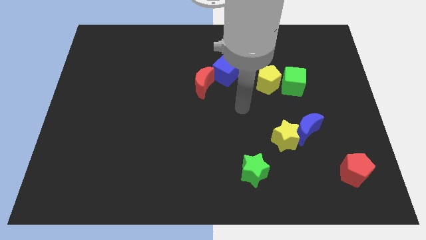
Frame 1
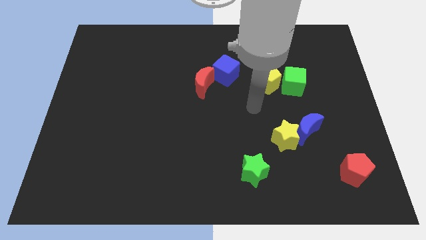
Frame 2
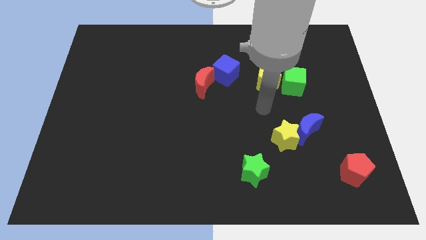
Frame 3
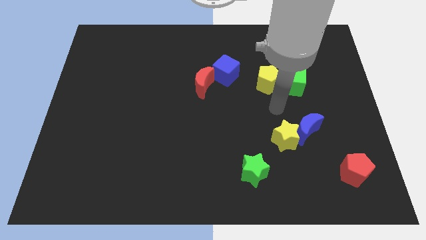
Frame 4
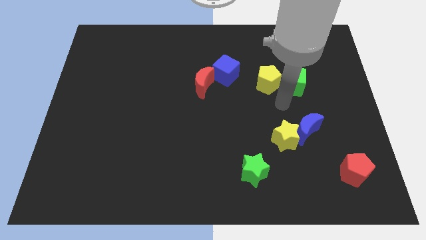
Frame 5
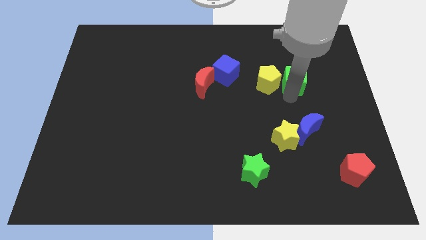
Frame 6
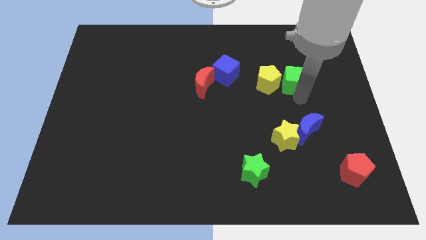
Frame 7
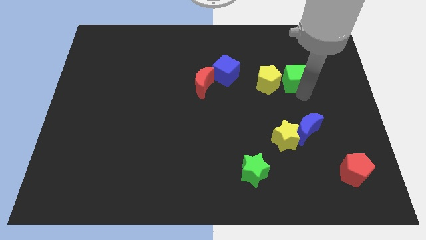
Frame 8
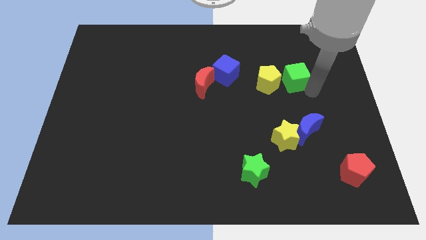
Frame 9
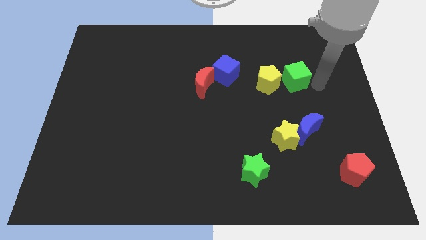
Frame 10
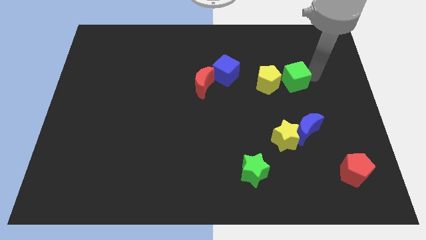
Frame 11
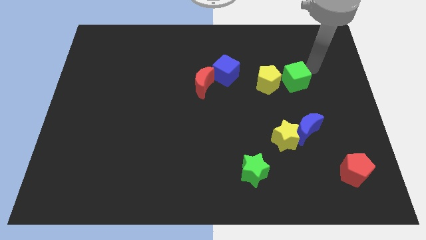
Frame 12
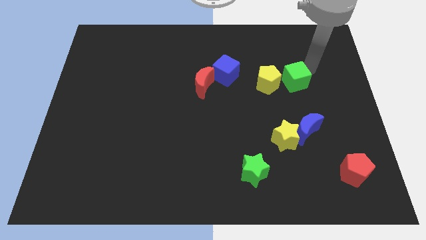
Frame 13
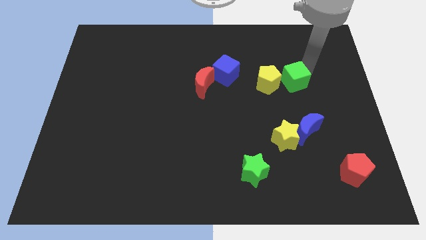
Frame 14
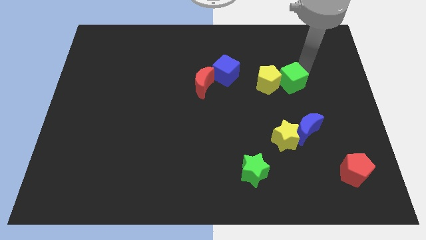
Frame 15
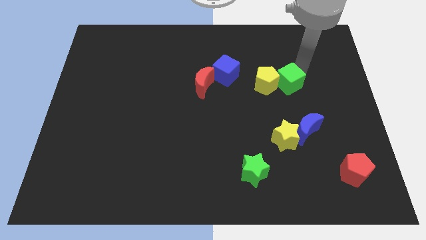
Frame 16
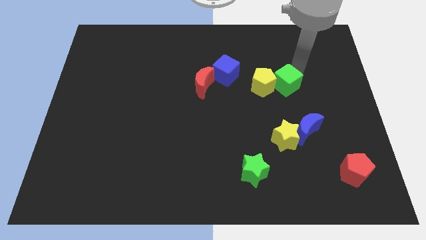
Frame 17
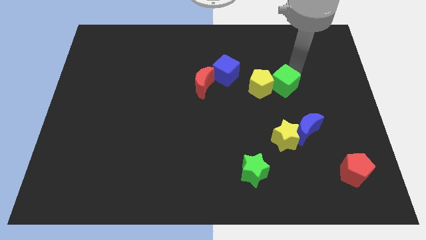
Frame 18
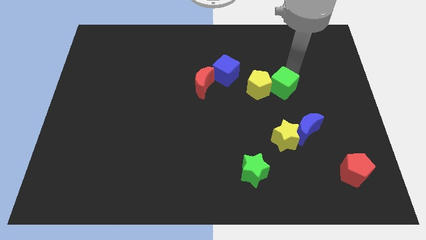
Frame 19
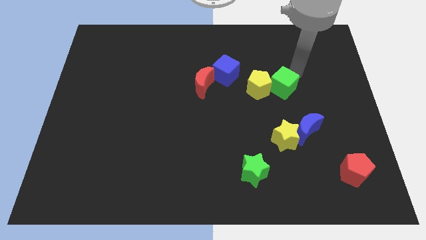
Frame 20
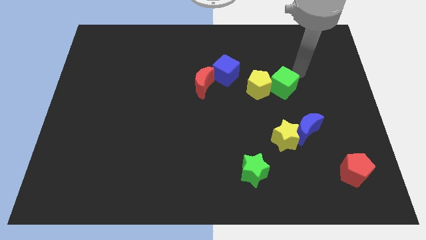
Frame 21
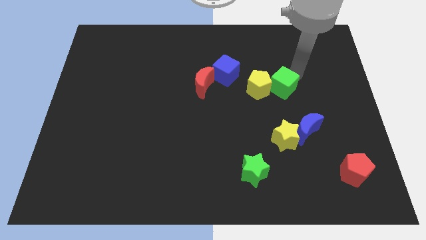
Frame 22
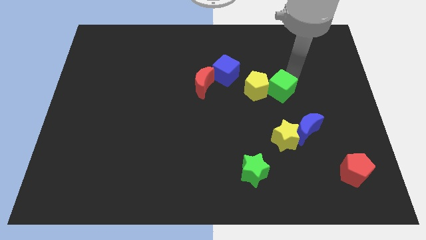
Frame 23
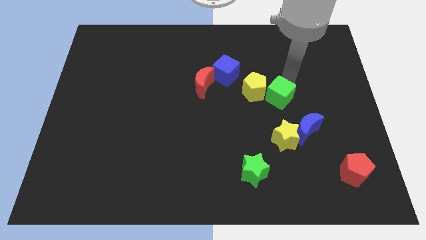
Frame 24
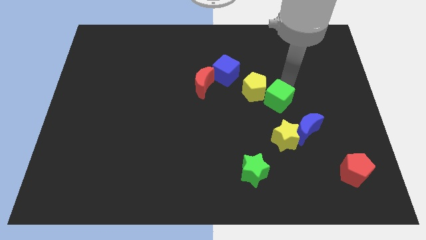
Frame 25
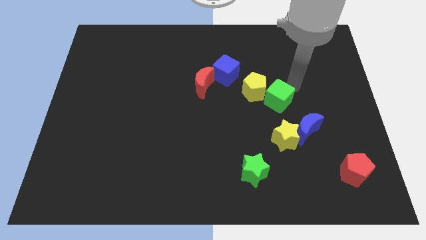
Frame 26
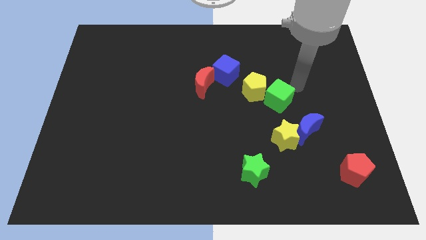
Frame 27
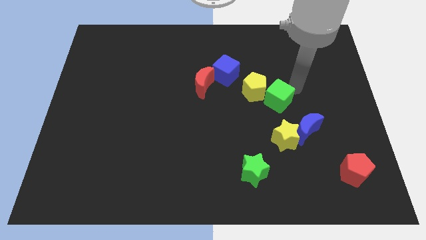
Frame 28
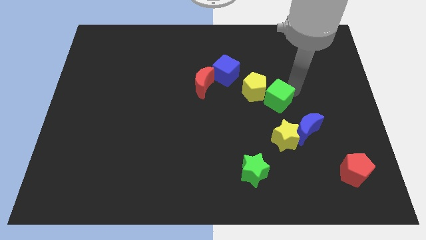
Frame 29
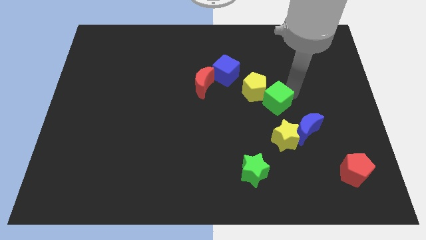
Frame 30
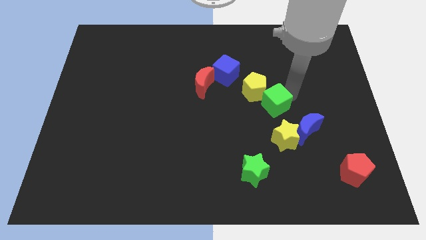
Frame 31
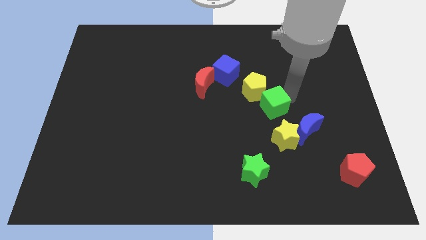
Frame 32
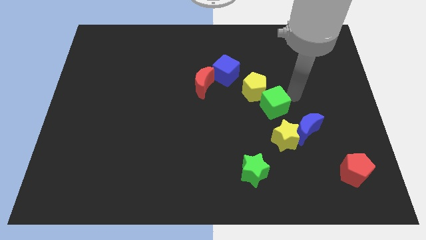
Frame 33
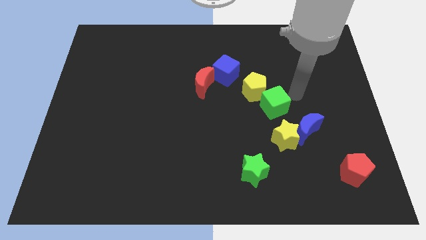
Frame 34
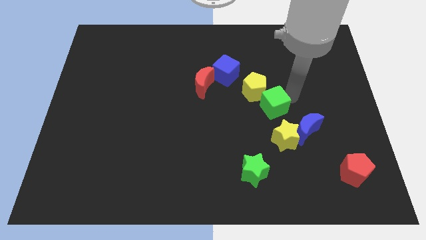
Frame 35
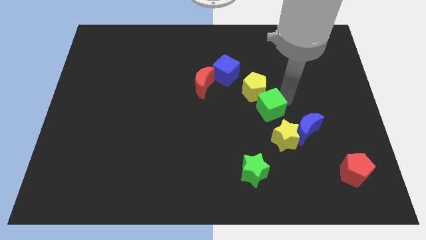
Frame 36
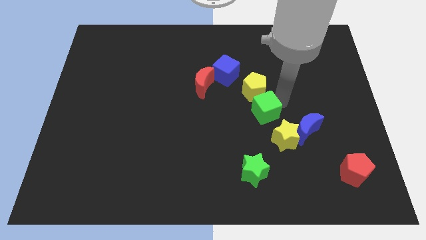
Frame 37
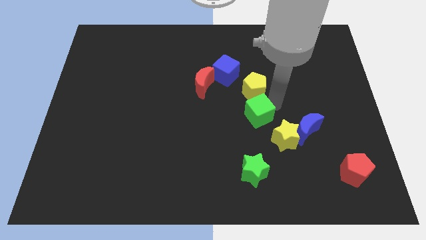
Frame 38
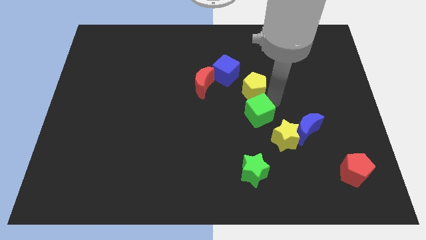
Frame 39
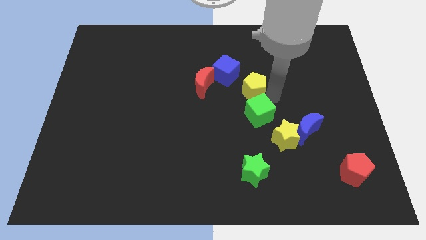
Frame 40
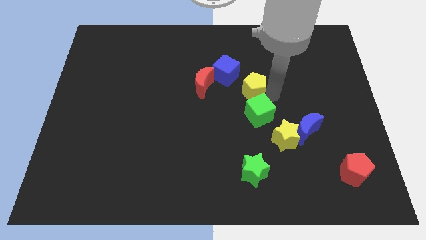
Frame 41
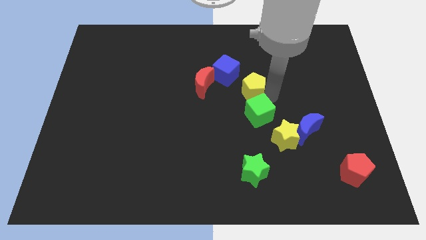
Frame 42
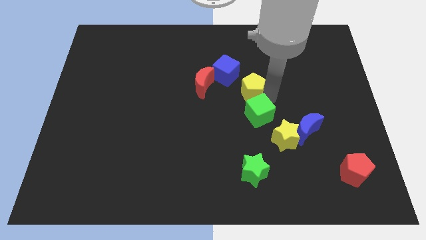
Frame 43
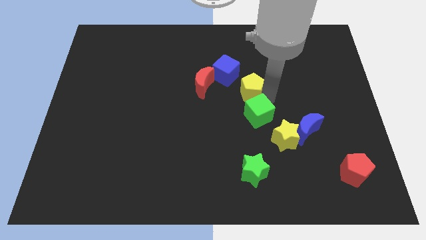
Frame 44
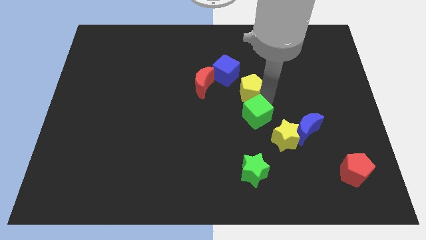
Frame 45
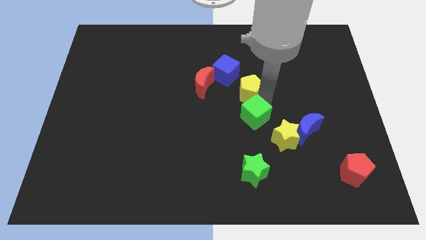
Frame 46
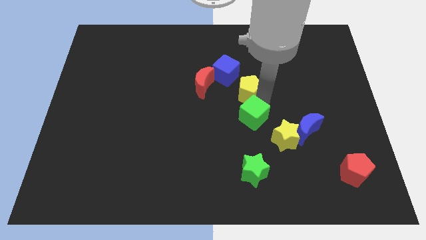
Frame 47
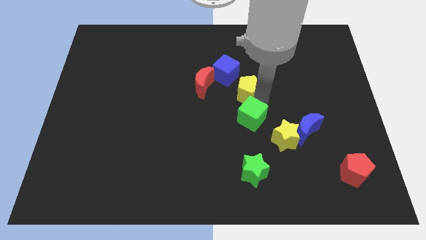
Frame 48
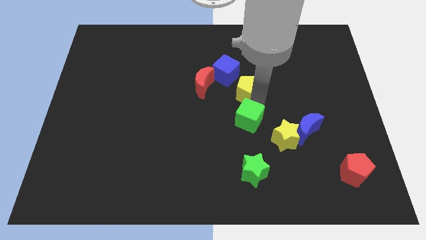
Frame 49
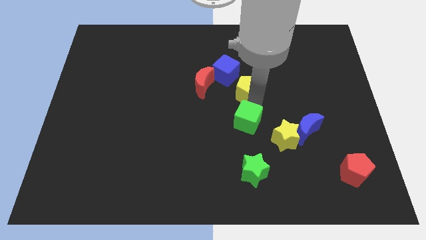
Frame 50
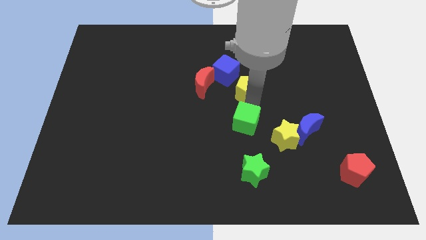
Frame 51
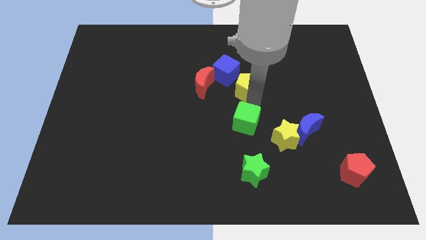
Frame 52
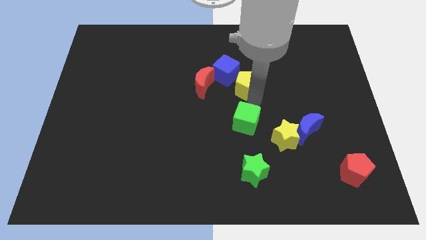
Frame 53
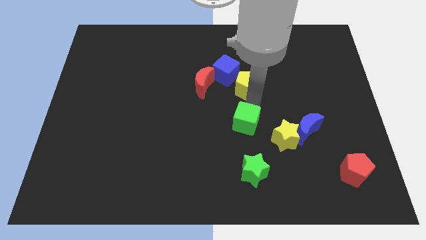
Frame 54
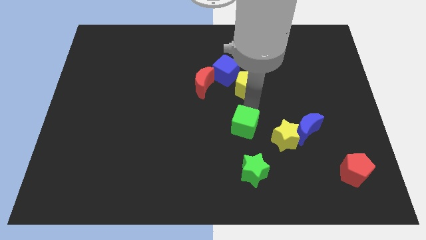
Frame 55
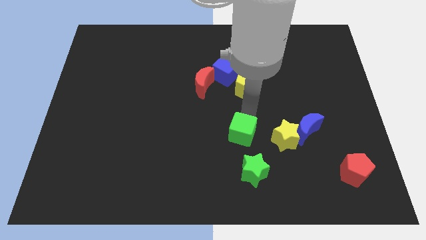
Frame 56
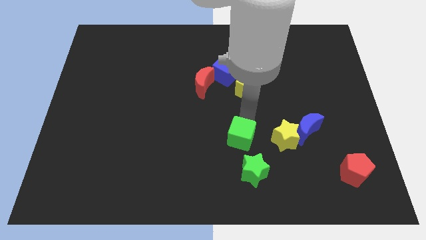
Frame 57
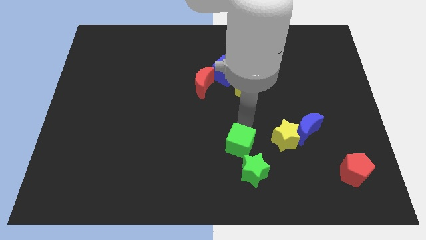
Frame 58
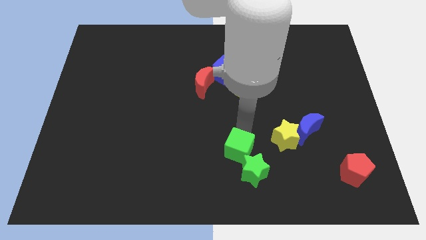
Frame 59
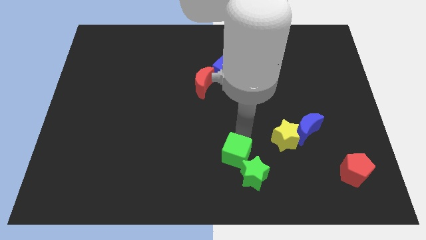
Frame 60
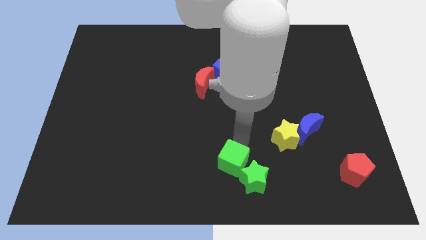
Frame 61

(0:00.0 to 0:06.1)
push the green cube to the bottom

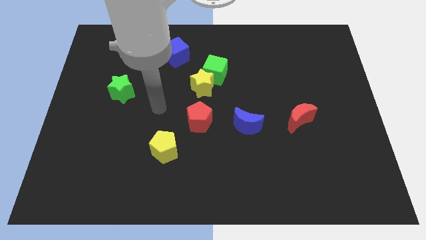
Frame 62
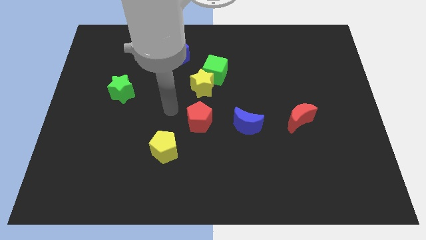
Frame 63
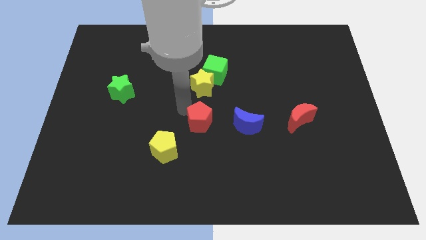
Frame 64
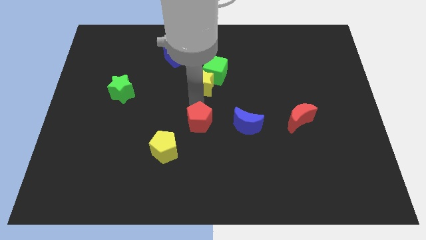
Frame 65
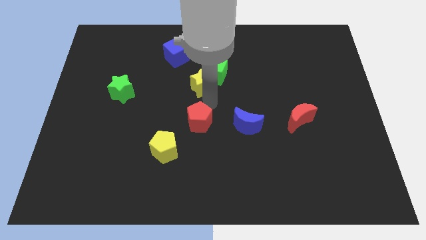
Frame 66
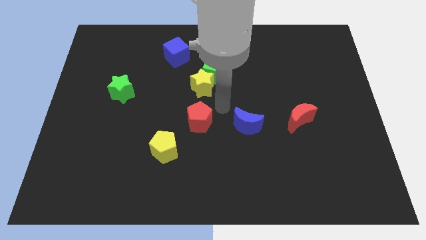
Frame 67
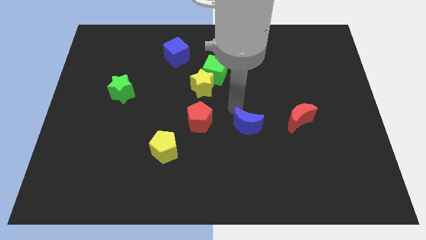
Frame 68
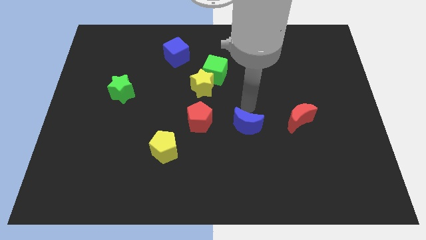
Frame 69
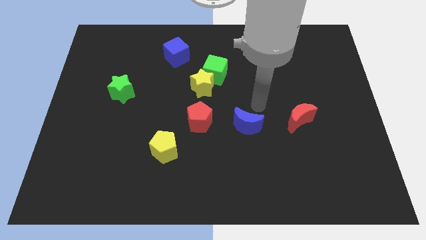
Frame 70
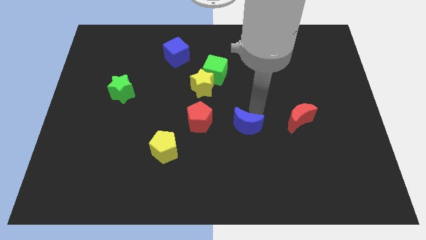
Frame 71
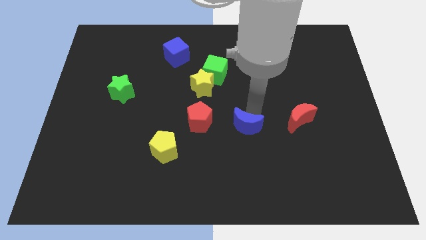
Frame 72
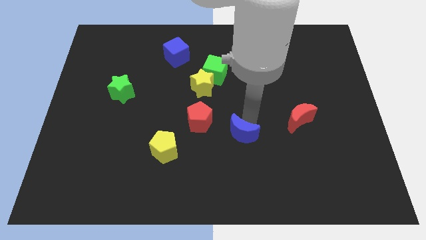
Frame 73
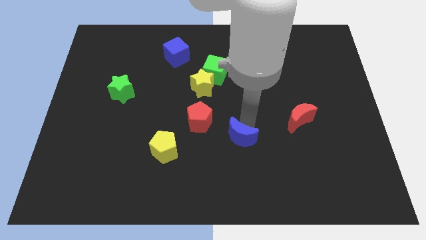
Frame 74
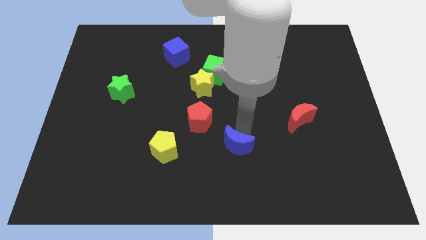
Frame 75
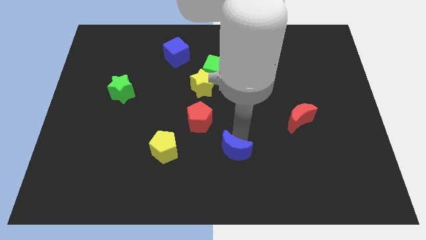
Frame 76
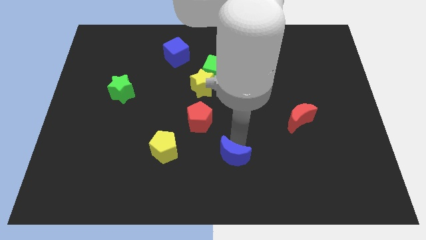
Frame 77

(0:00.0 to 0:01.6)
push the blue moon to the bottom side
